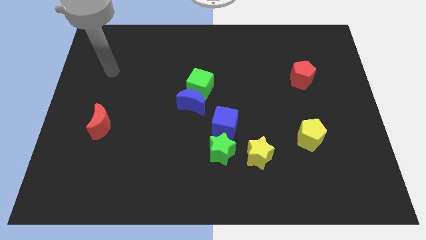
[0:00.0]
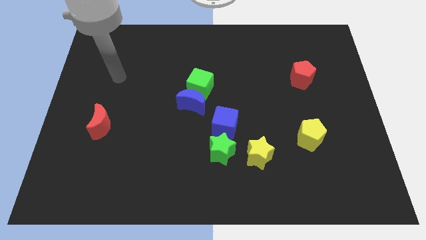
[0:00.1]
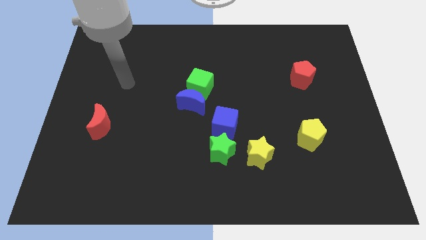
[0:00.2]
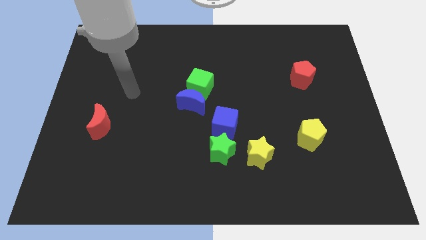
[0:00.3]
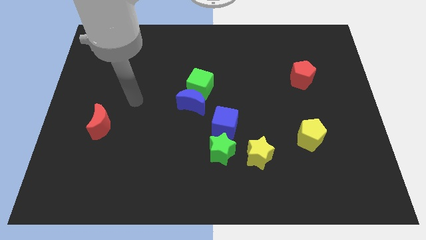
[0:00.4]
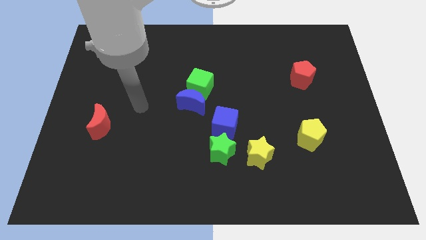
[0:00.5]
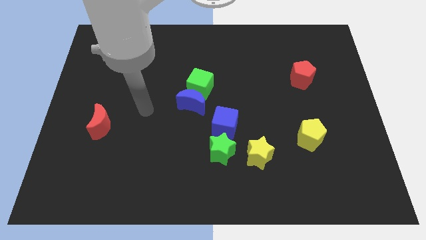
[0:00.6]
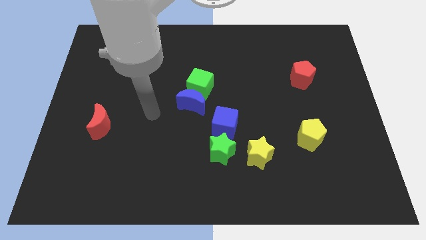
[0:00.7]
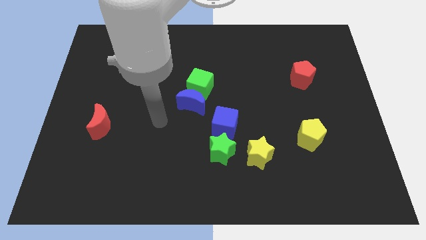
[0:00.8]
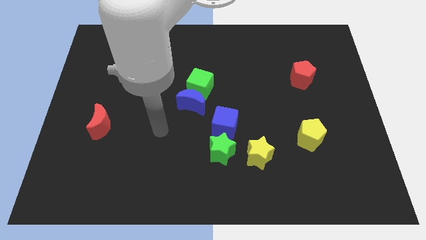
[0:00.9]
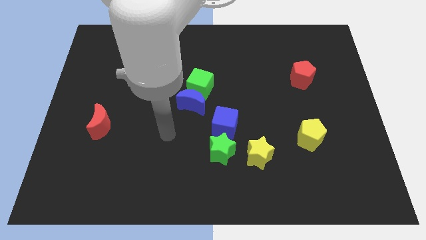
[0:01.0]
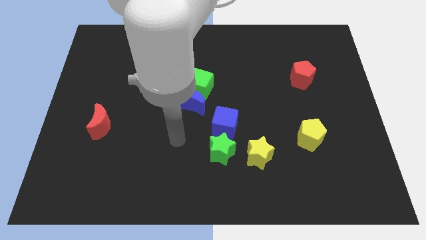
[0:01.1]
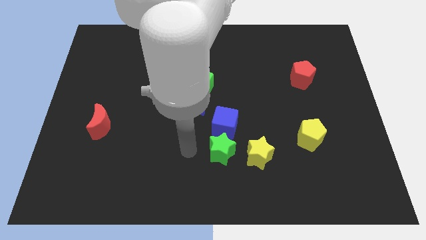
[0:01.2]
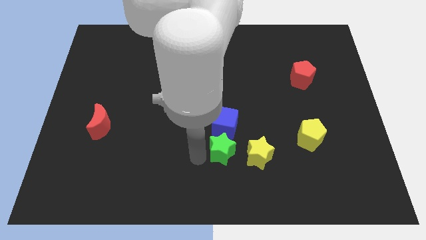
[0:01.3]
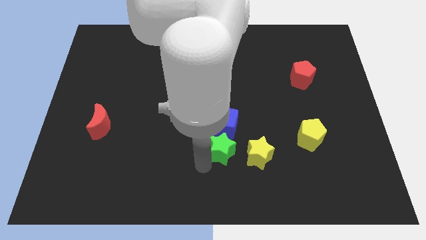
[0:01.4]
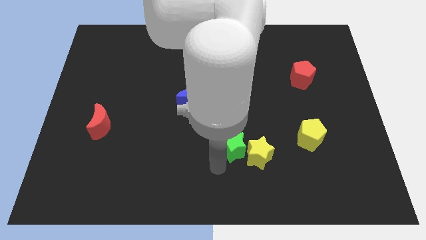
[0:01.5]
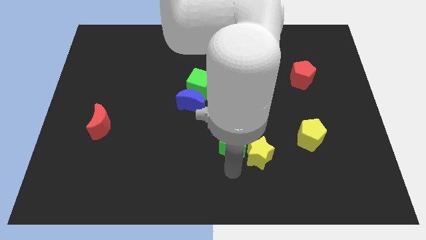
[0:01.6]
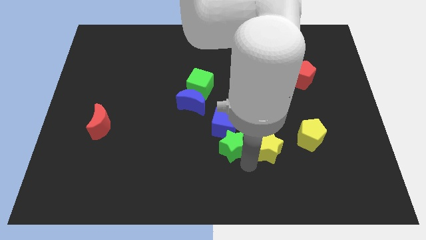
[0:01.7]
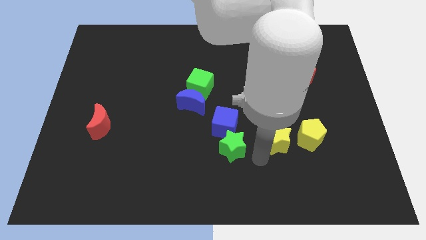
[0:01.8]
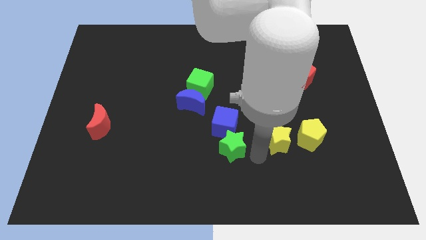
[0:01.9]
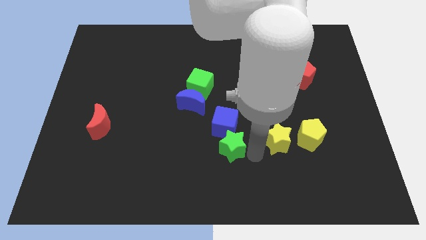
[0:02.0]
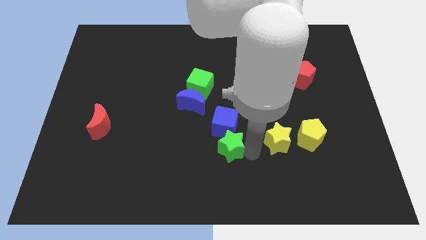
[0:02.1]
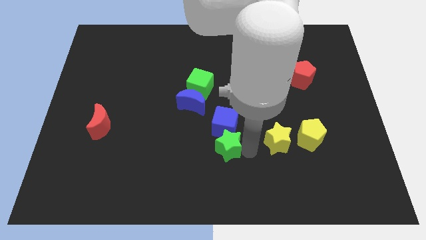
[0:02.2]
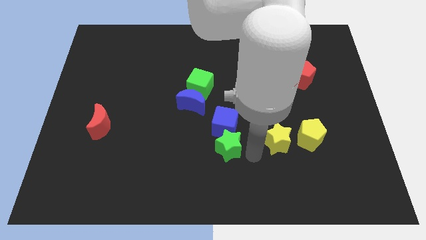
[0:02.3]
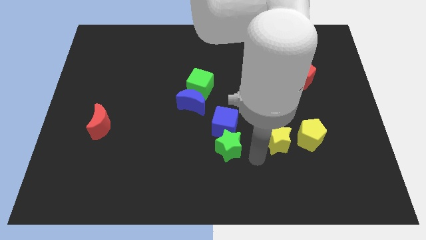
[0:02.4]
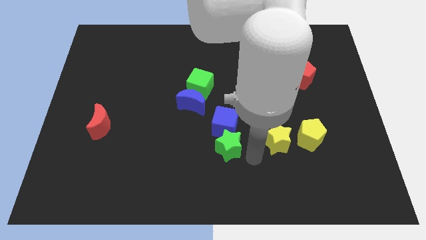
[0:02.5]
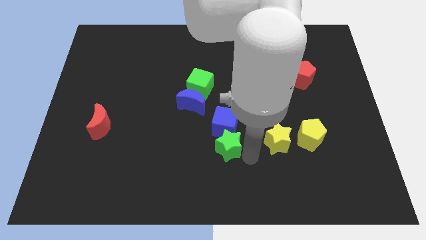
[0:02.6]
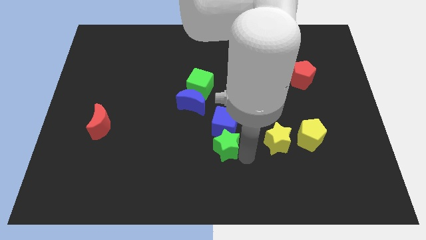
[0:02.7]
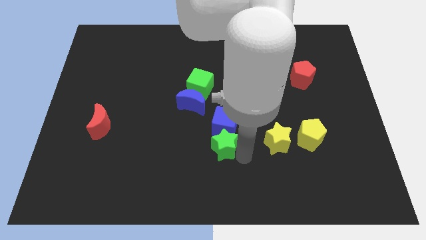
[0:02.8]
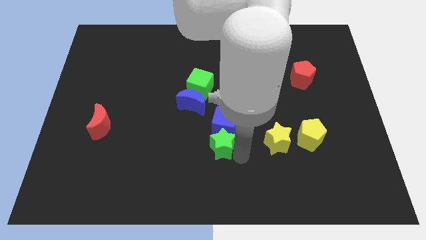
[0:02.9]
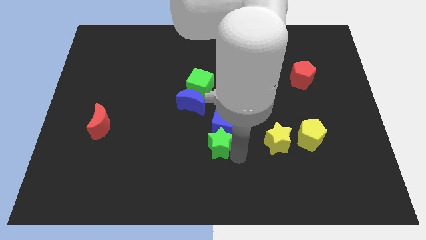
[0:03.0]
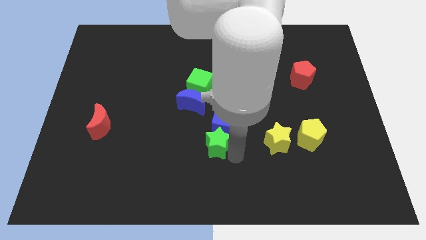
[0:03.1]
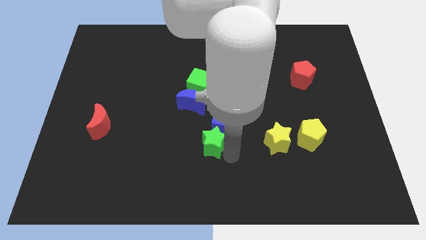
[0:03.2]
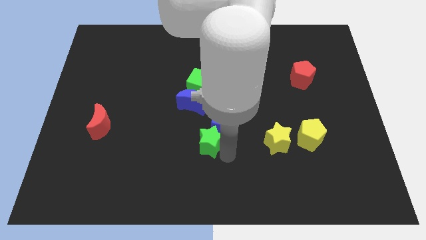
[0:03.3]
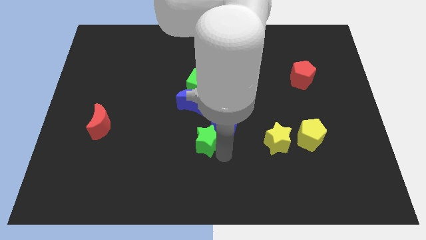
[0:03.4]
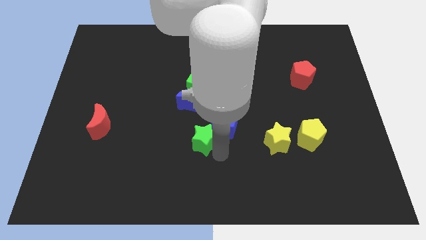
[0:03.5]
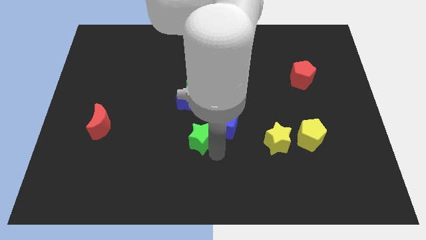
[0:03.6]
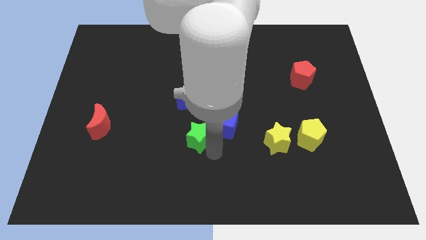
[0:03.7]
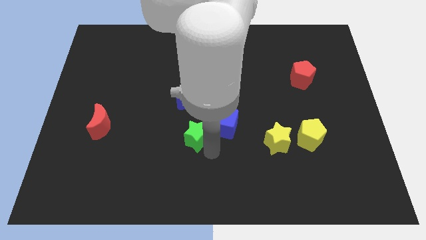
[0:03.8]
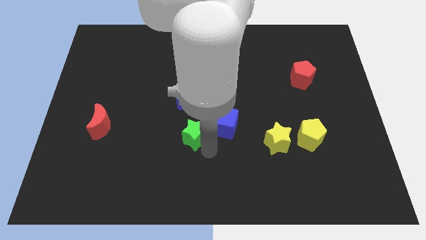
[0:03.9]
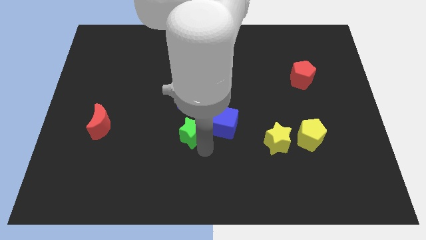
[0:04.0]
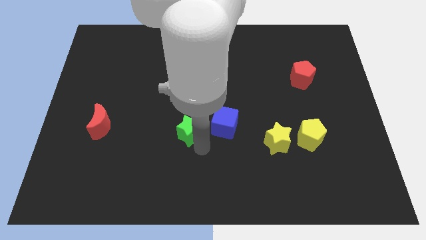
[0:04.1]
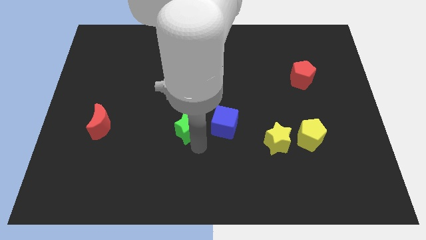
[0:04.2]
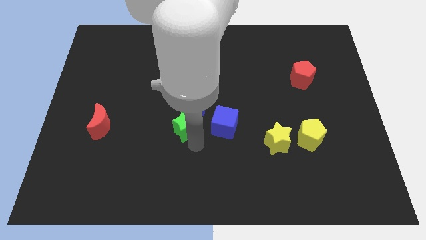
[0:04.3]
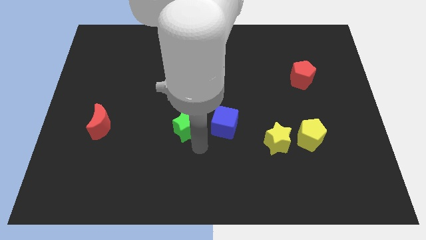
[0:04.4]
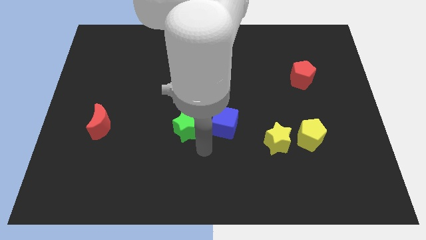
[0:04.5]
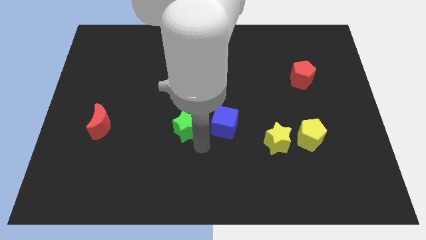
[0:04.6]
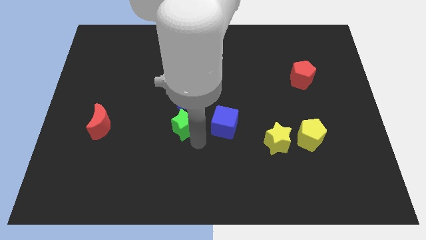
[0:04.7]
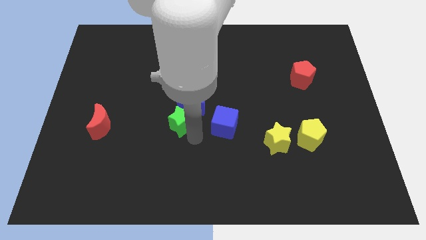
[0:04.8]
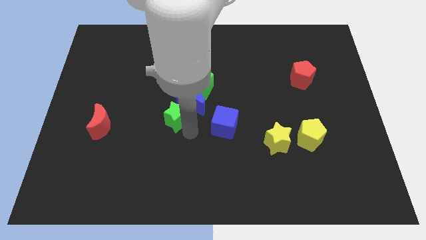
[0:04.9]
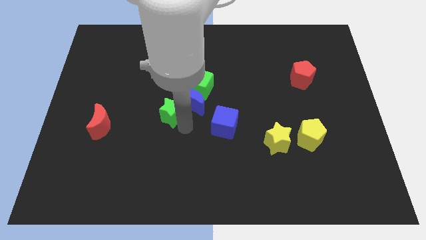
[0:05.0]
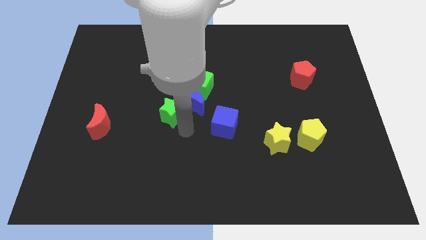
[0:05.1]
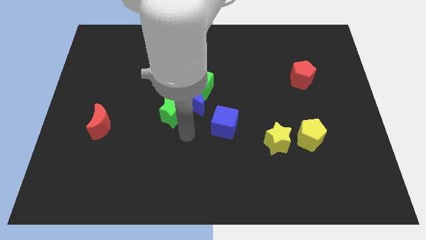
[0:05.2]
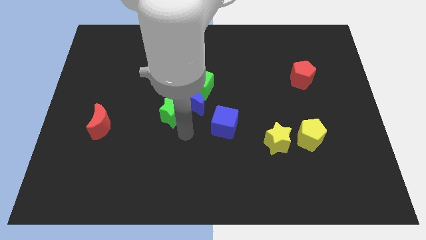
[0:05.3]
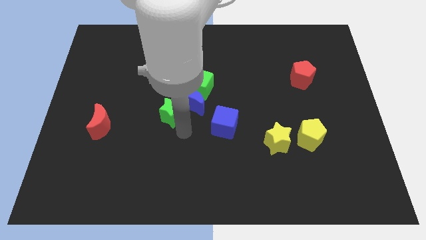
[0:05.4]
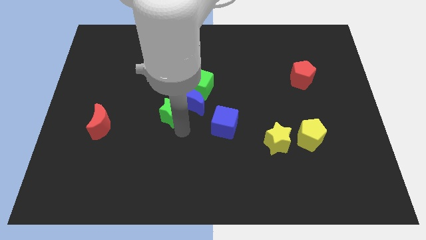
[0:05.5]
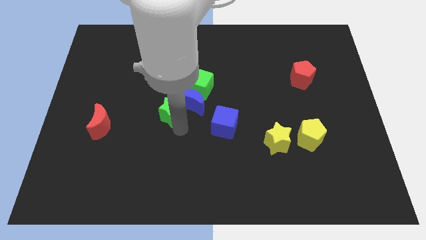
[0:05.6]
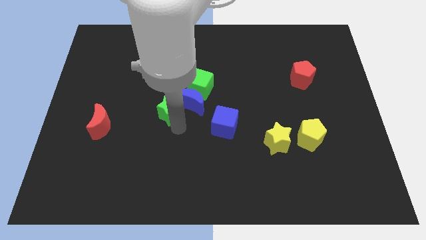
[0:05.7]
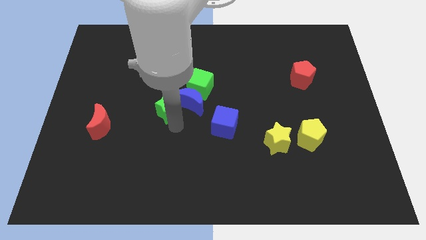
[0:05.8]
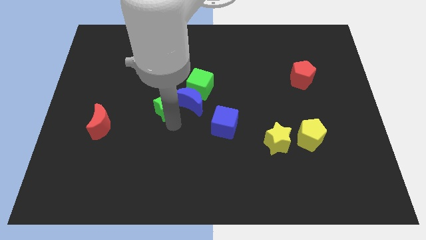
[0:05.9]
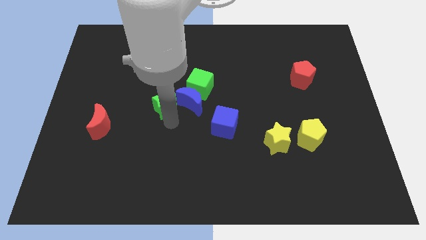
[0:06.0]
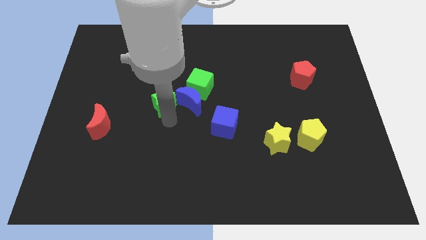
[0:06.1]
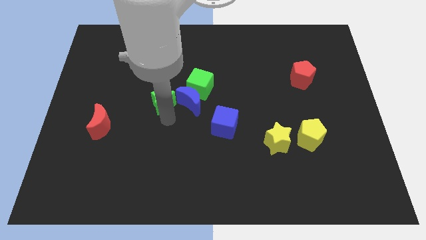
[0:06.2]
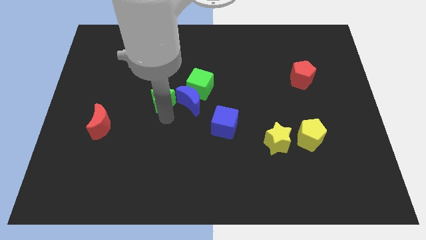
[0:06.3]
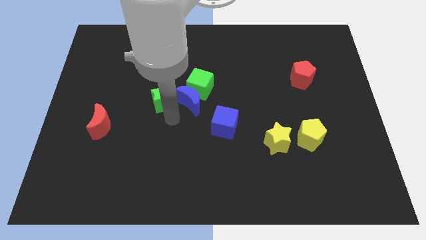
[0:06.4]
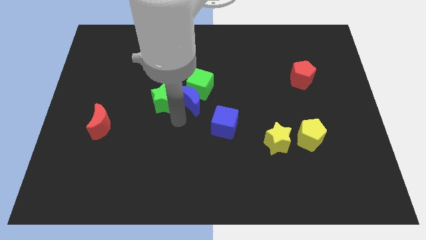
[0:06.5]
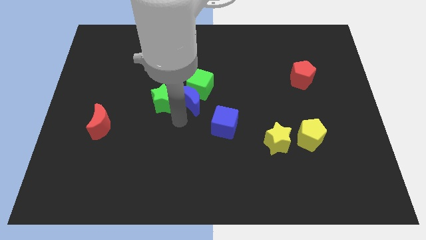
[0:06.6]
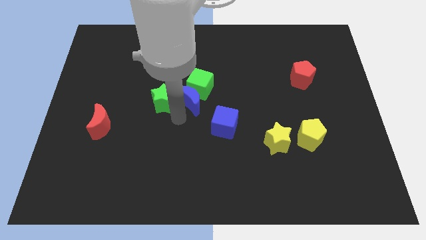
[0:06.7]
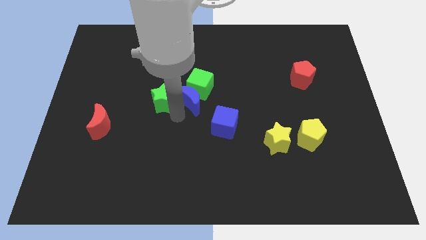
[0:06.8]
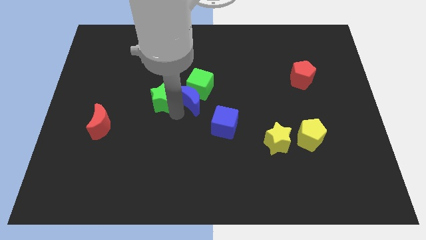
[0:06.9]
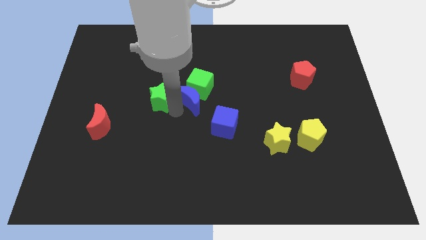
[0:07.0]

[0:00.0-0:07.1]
push the green star upwards and then left

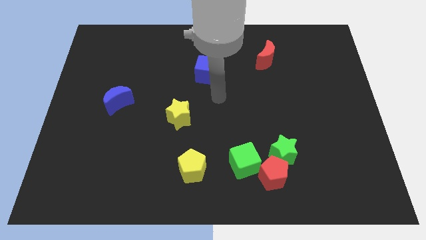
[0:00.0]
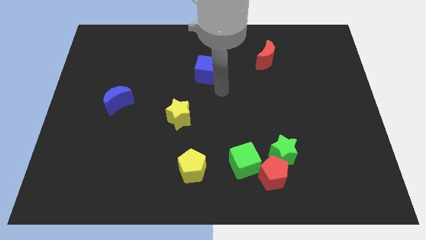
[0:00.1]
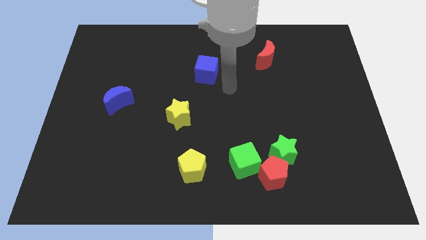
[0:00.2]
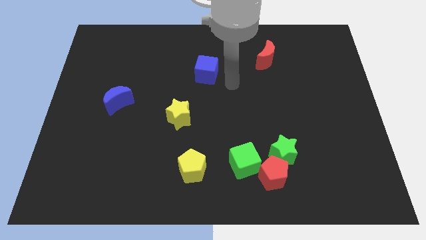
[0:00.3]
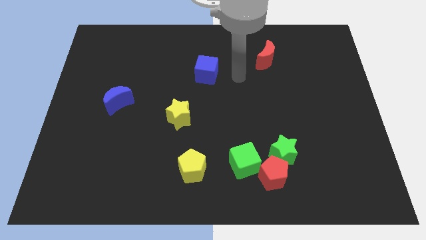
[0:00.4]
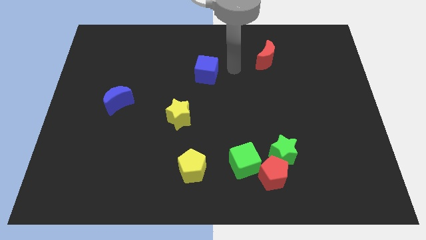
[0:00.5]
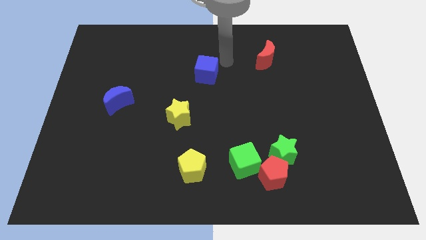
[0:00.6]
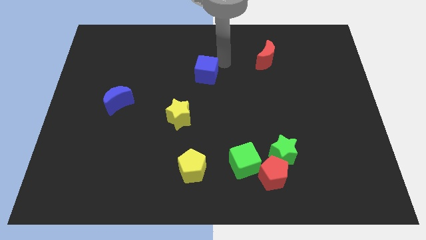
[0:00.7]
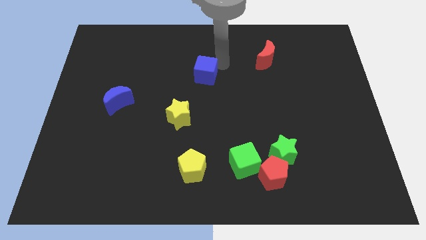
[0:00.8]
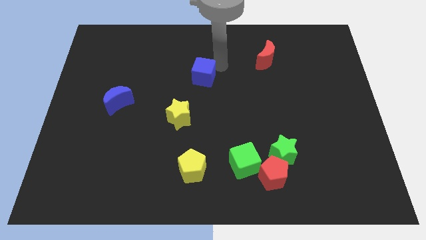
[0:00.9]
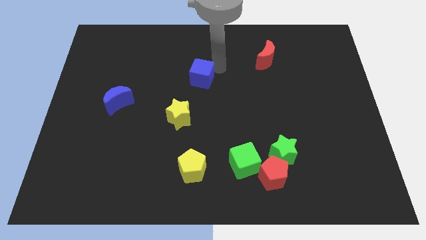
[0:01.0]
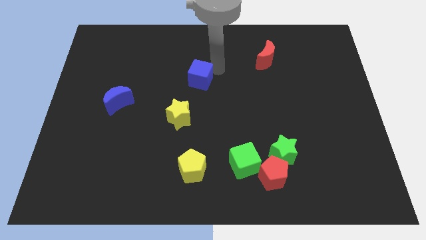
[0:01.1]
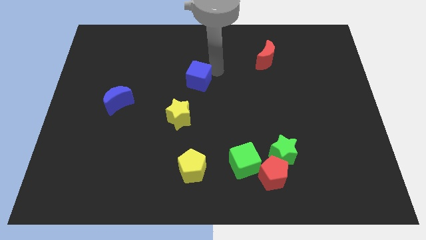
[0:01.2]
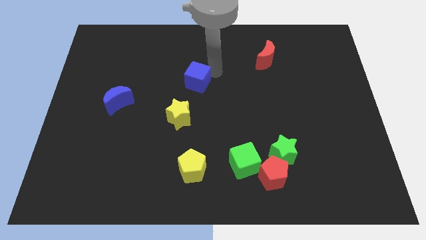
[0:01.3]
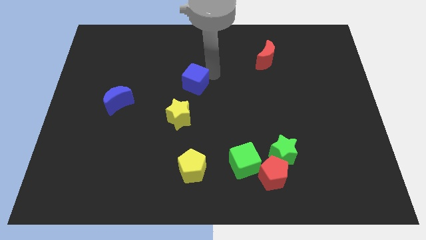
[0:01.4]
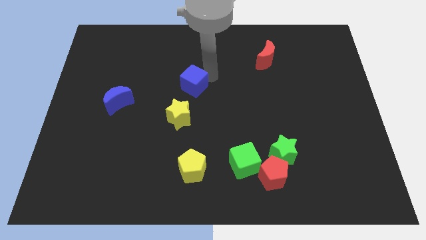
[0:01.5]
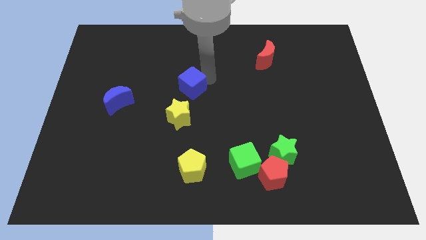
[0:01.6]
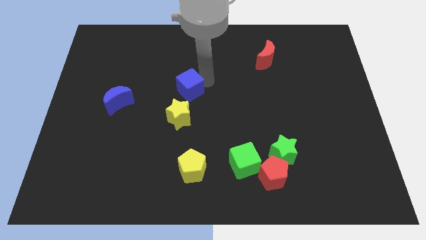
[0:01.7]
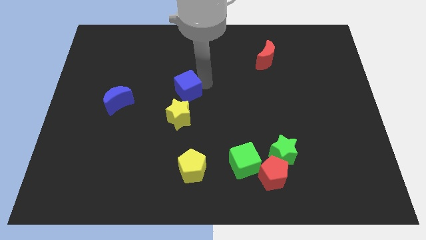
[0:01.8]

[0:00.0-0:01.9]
slide the blue cube somewhat downwards and left diagonally
